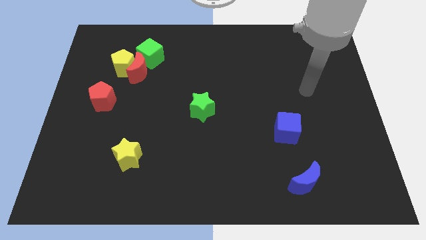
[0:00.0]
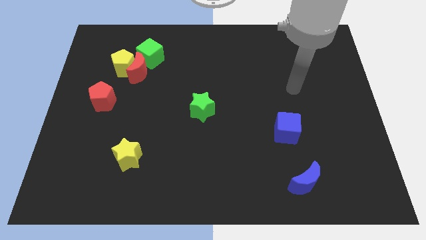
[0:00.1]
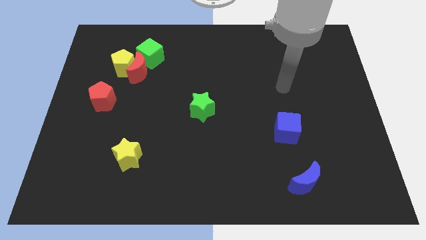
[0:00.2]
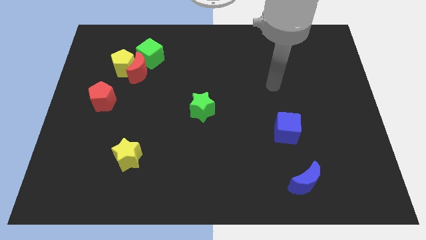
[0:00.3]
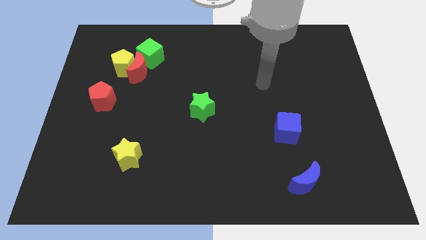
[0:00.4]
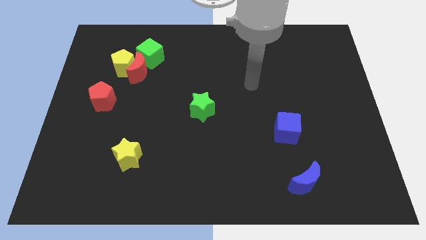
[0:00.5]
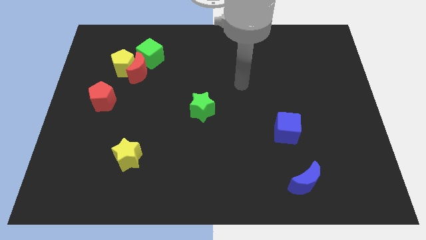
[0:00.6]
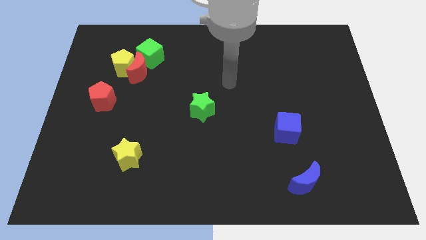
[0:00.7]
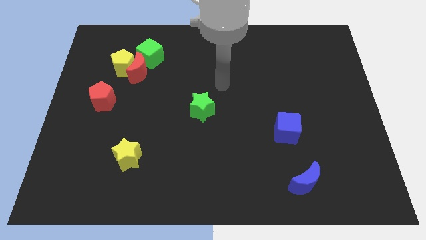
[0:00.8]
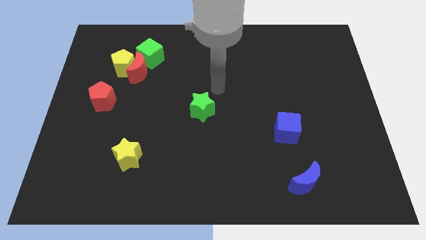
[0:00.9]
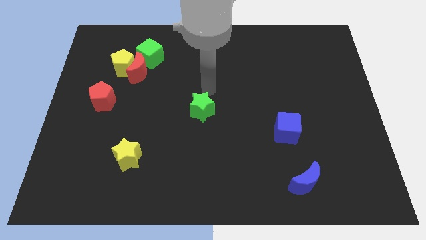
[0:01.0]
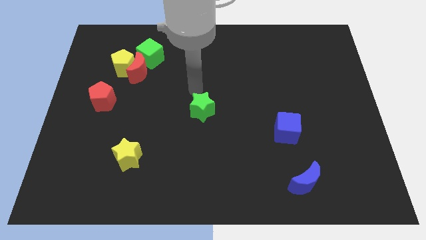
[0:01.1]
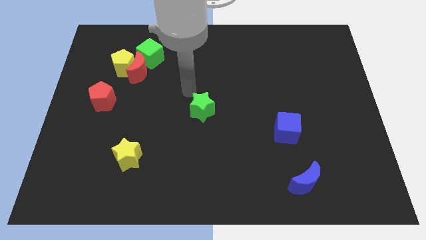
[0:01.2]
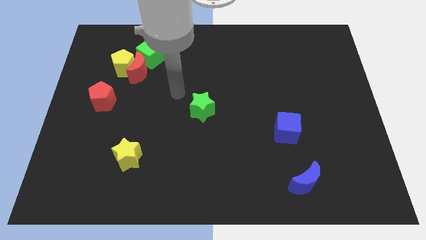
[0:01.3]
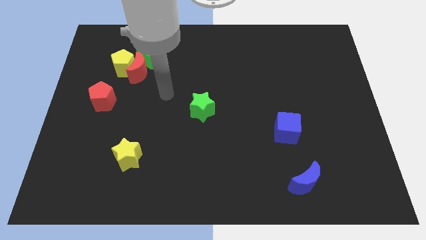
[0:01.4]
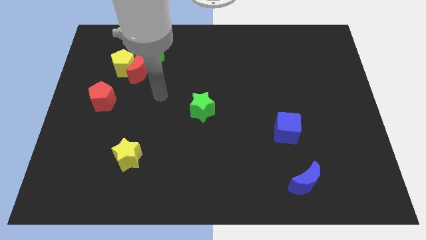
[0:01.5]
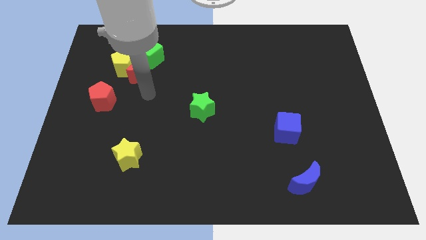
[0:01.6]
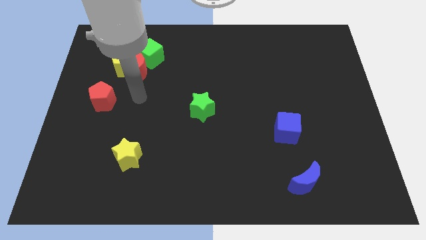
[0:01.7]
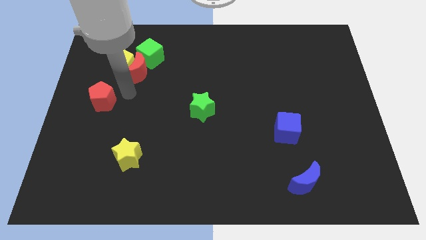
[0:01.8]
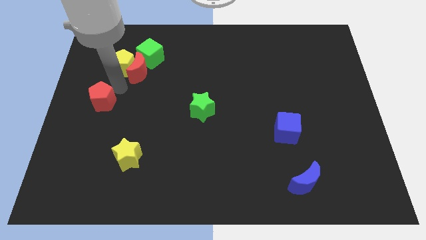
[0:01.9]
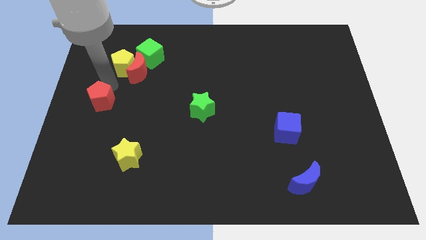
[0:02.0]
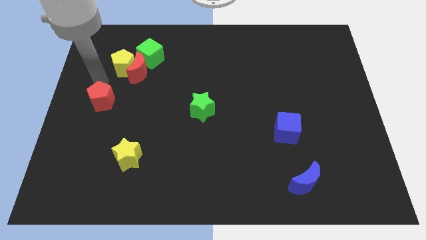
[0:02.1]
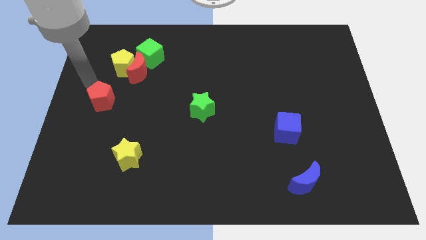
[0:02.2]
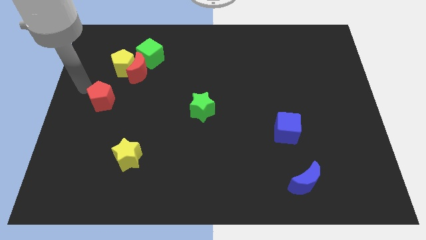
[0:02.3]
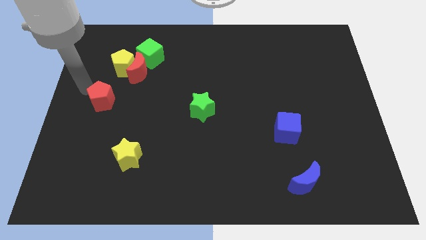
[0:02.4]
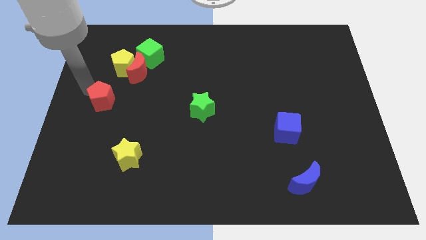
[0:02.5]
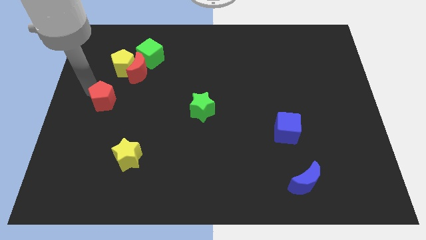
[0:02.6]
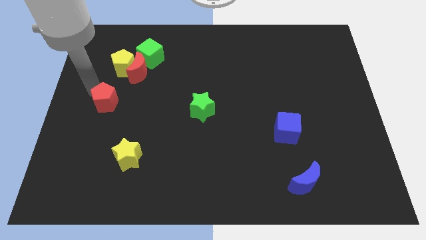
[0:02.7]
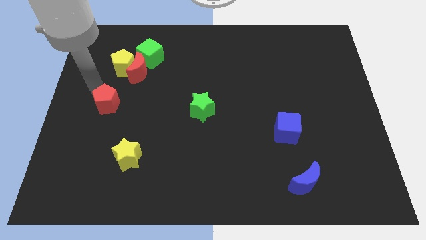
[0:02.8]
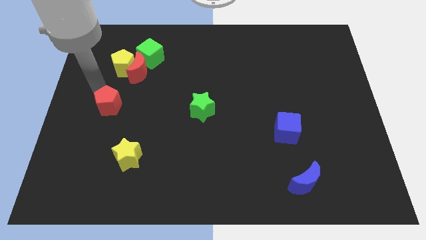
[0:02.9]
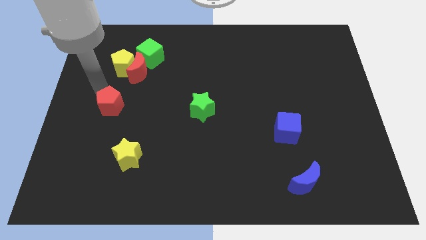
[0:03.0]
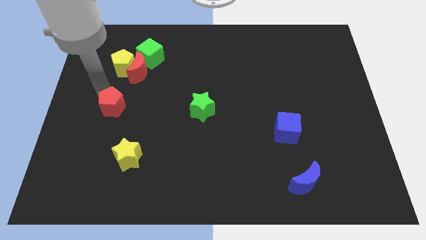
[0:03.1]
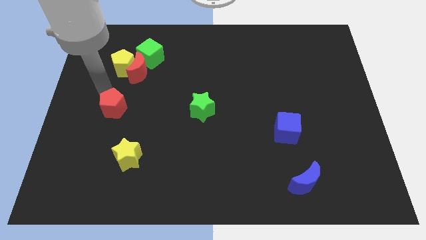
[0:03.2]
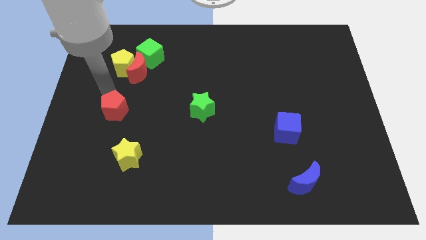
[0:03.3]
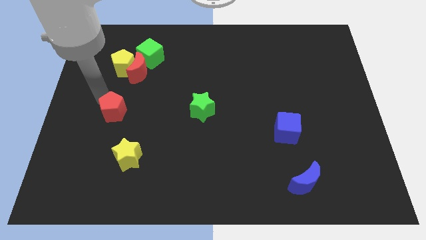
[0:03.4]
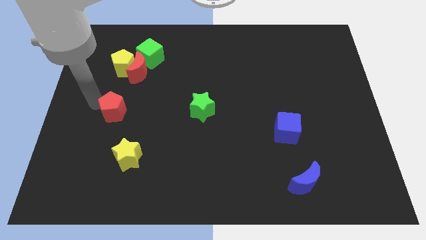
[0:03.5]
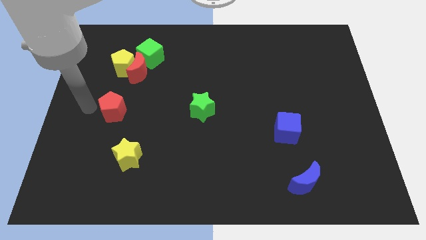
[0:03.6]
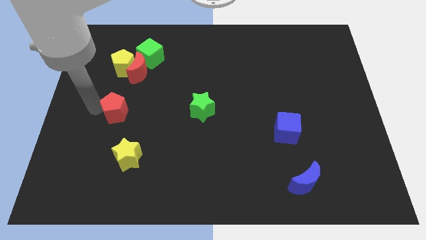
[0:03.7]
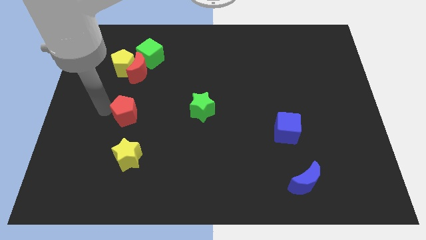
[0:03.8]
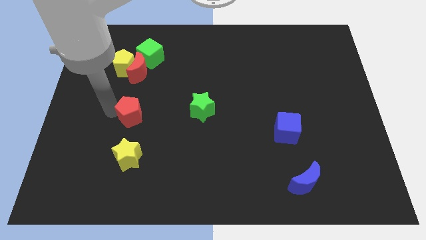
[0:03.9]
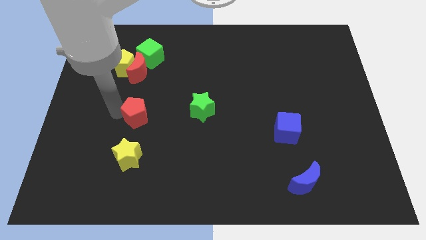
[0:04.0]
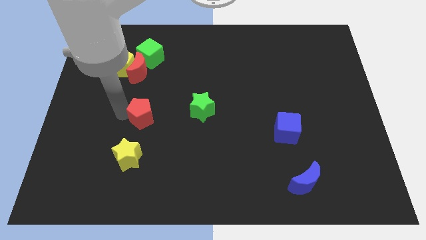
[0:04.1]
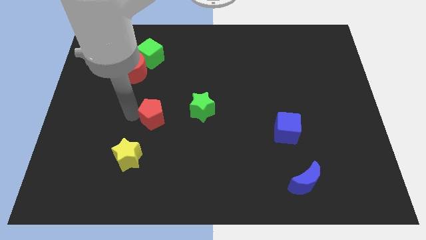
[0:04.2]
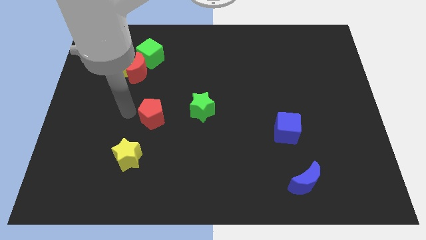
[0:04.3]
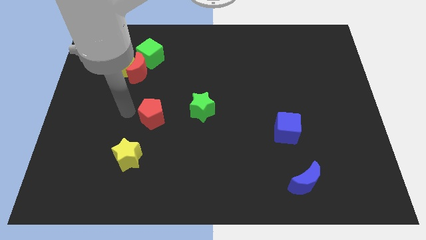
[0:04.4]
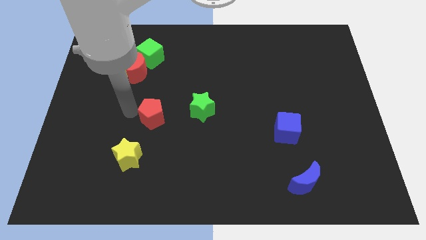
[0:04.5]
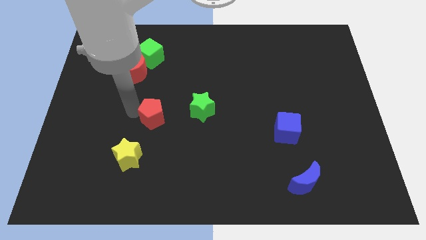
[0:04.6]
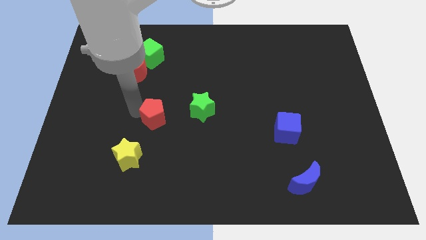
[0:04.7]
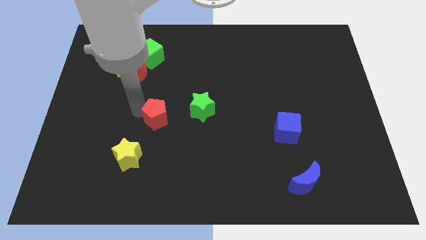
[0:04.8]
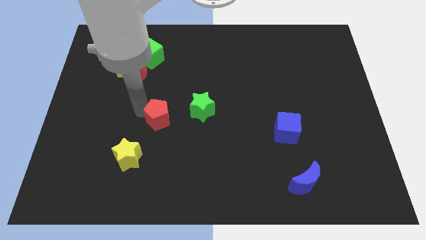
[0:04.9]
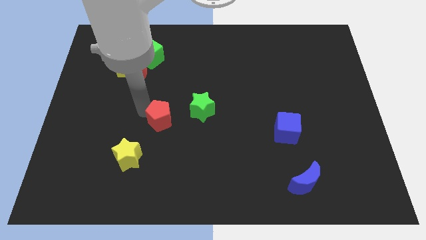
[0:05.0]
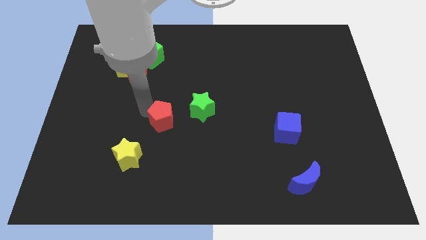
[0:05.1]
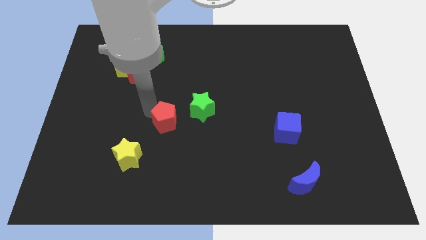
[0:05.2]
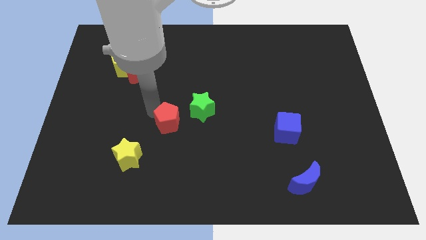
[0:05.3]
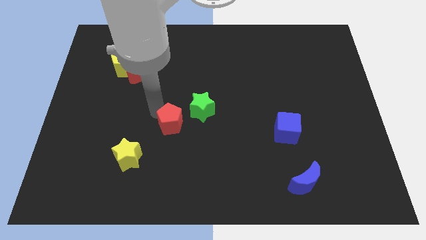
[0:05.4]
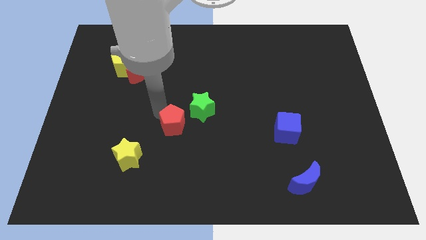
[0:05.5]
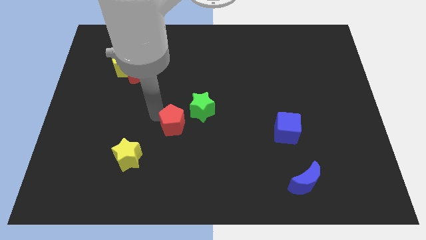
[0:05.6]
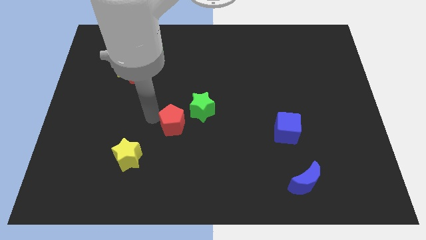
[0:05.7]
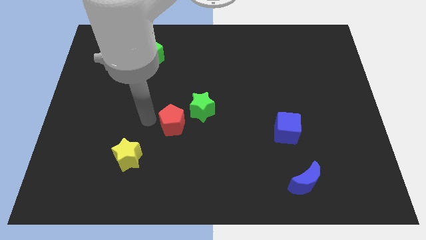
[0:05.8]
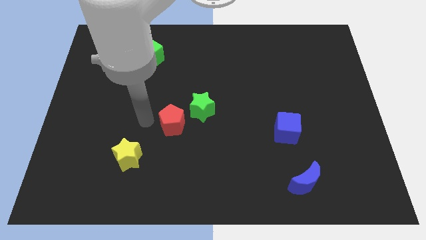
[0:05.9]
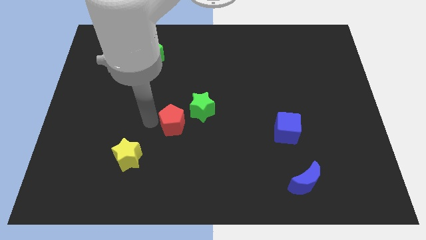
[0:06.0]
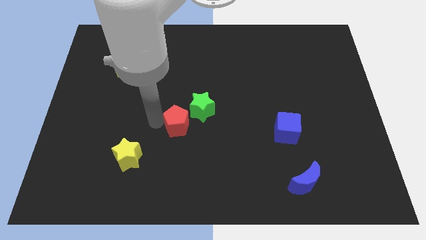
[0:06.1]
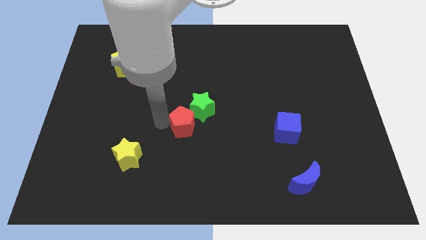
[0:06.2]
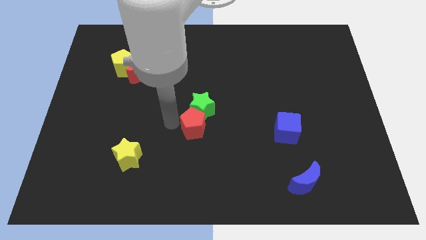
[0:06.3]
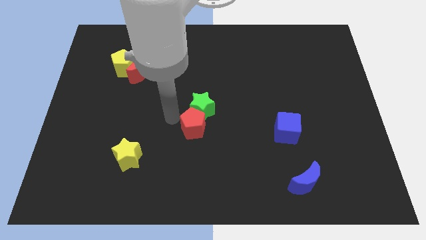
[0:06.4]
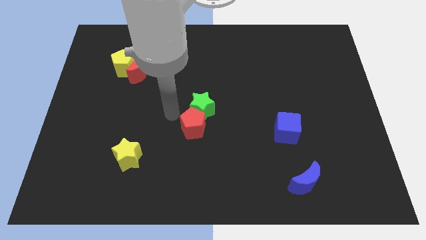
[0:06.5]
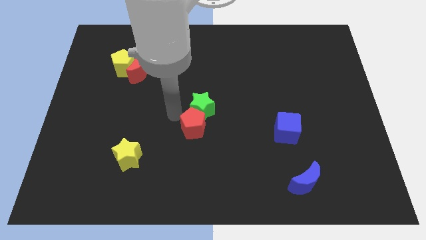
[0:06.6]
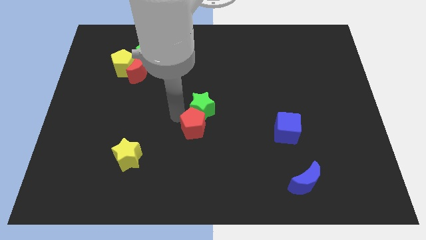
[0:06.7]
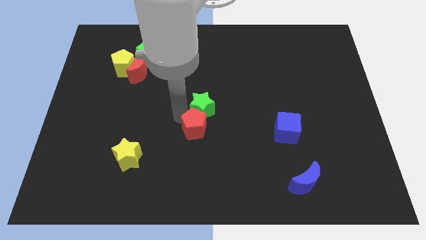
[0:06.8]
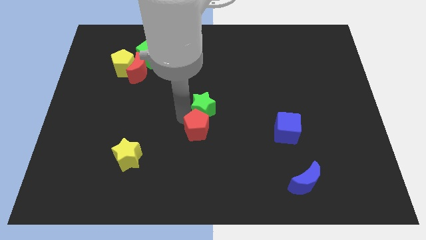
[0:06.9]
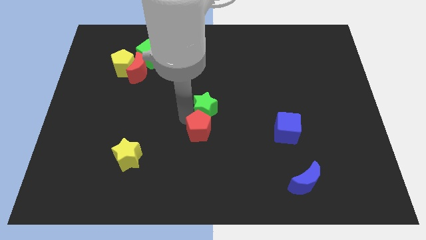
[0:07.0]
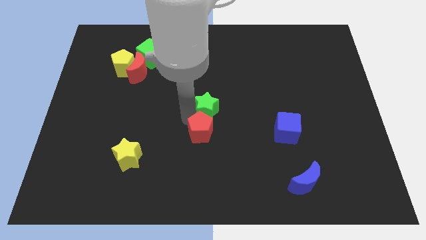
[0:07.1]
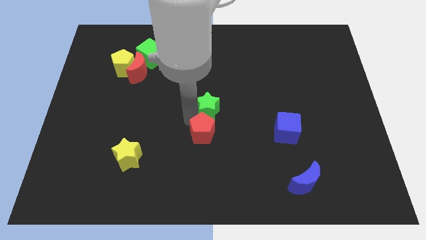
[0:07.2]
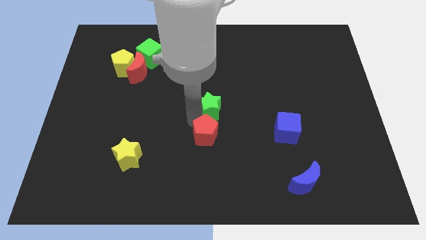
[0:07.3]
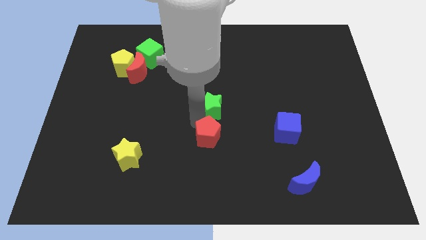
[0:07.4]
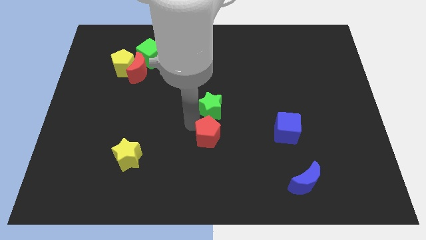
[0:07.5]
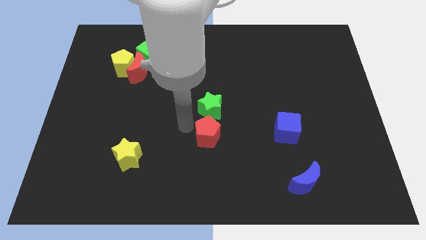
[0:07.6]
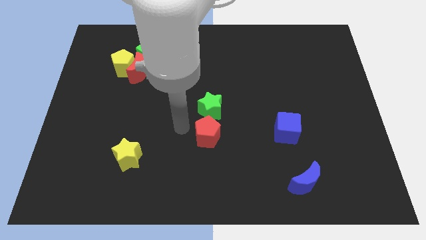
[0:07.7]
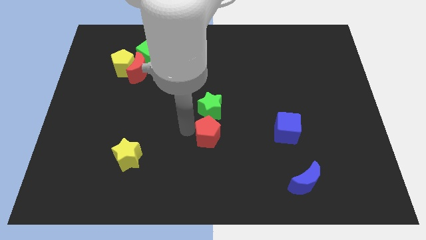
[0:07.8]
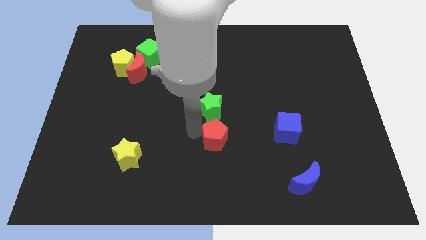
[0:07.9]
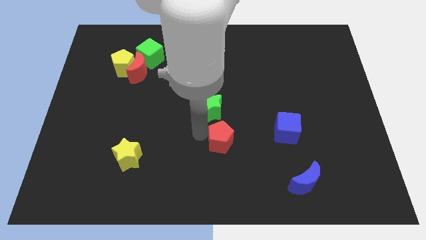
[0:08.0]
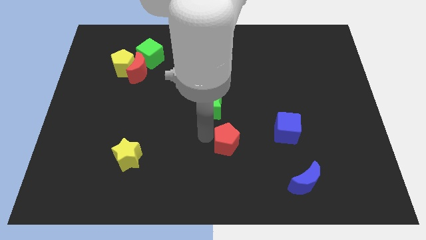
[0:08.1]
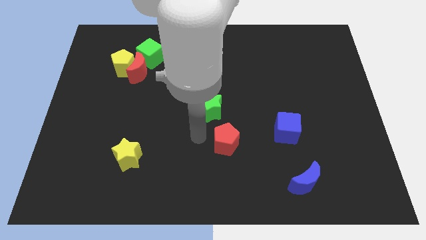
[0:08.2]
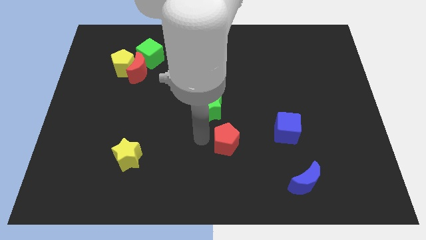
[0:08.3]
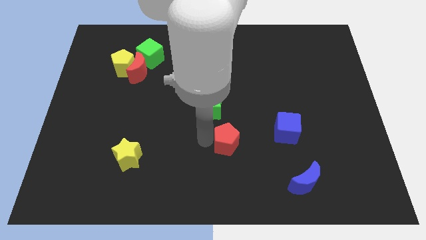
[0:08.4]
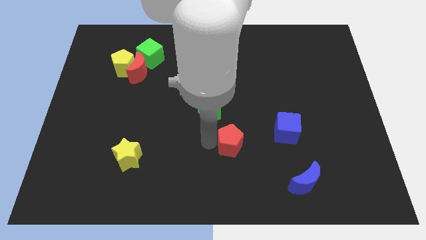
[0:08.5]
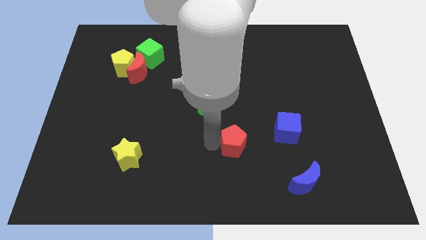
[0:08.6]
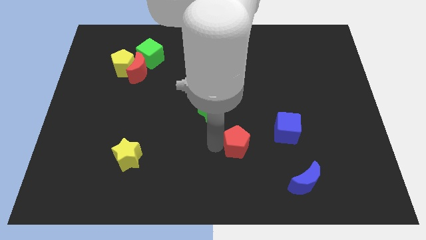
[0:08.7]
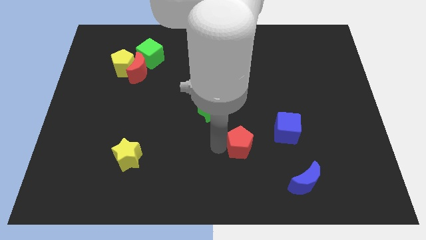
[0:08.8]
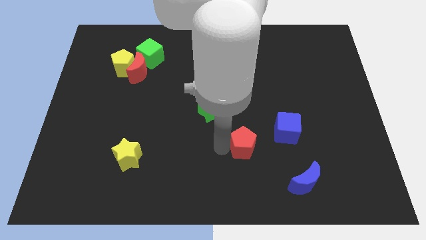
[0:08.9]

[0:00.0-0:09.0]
push the red pentagon diagonally down and to the left of the blue cube
